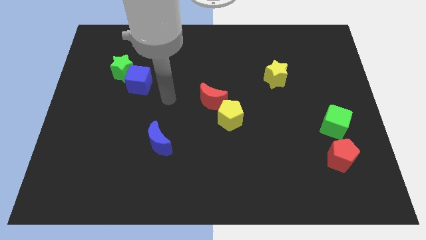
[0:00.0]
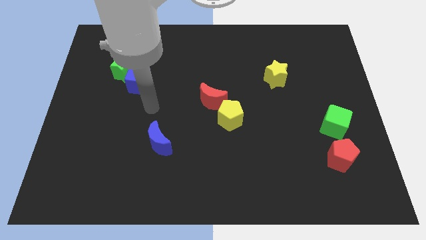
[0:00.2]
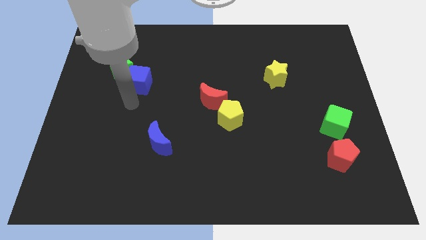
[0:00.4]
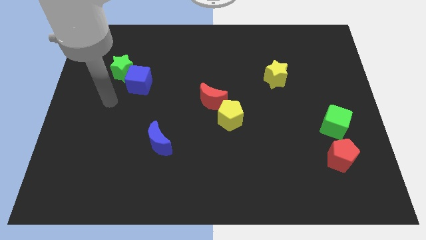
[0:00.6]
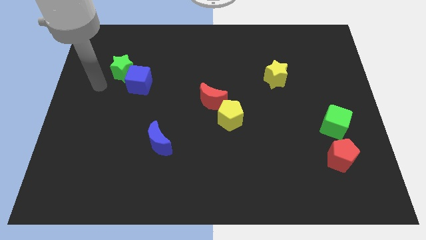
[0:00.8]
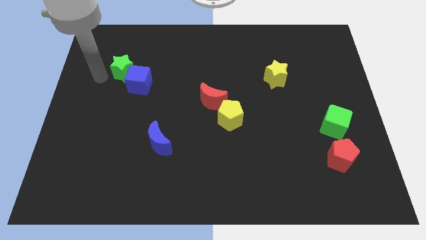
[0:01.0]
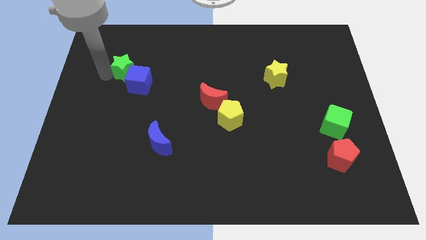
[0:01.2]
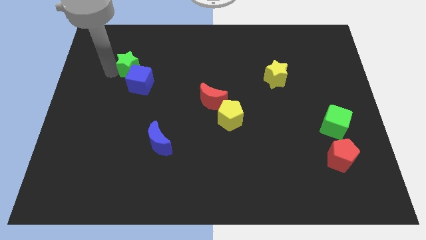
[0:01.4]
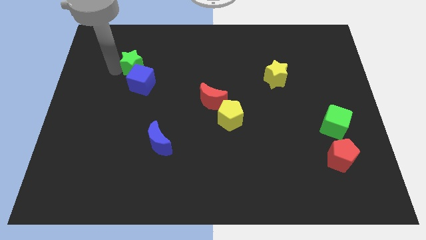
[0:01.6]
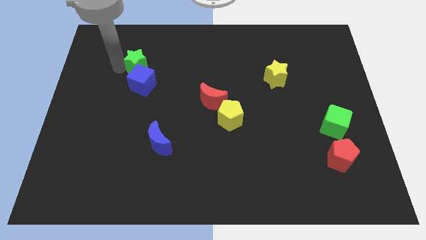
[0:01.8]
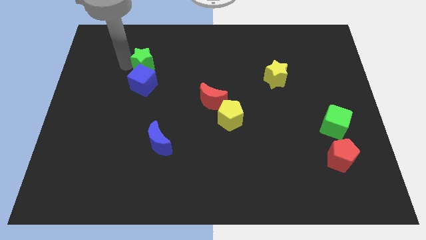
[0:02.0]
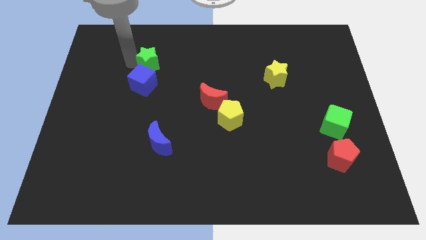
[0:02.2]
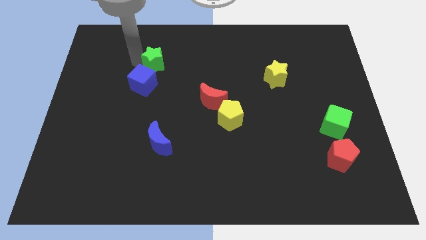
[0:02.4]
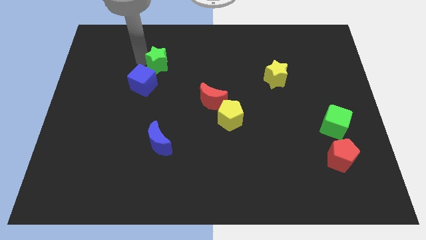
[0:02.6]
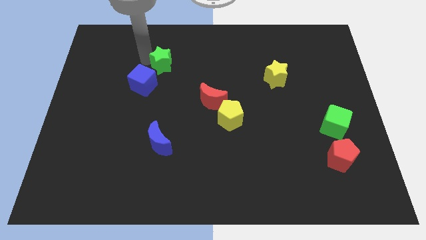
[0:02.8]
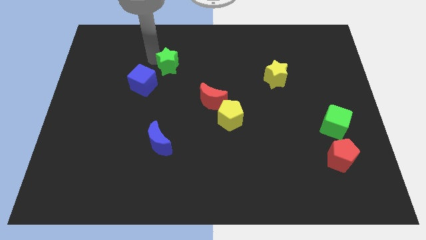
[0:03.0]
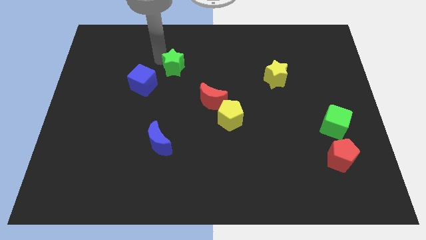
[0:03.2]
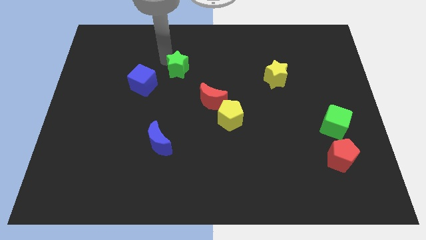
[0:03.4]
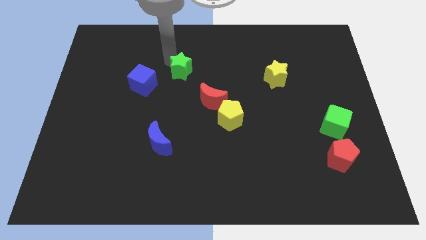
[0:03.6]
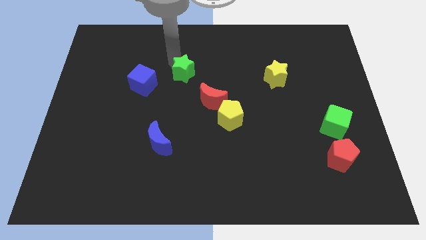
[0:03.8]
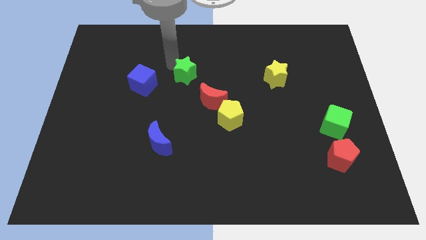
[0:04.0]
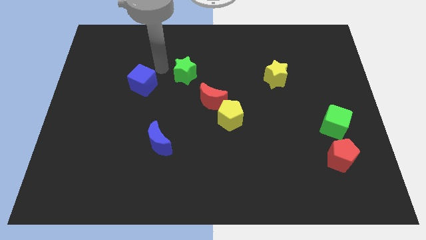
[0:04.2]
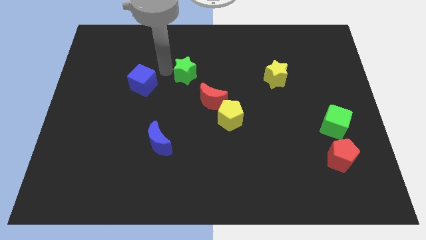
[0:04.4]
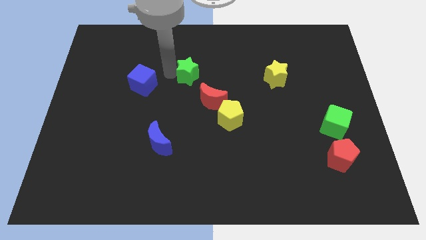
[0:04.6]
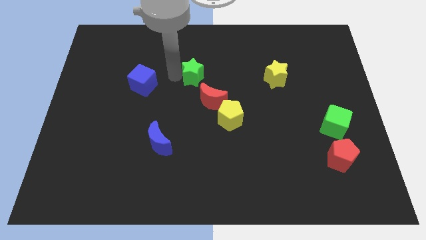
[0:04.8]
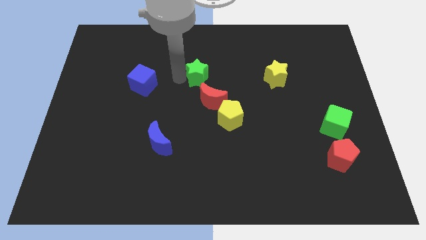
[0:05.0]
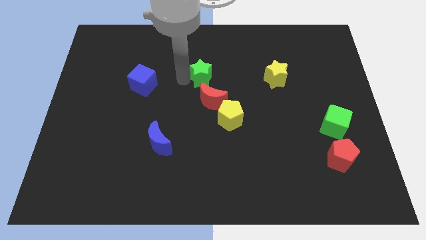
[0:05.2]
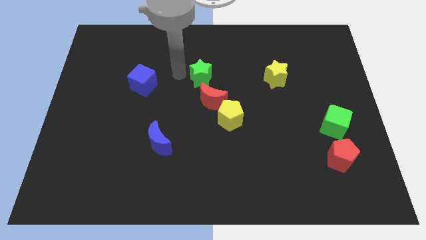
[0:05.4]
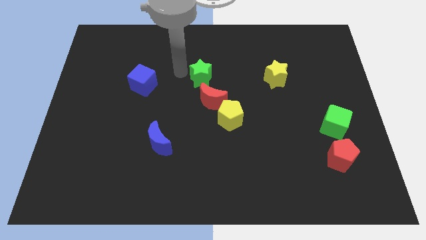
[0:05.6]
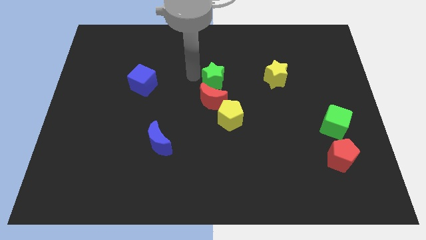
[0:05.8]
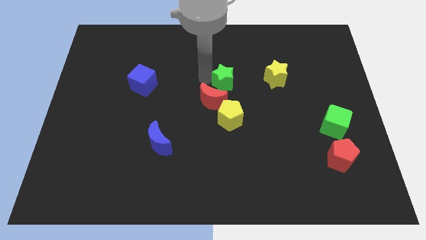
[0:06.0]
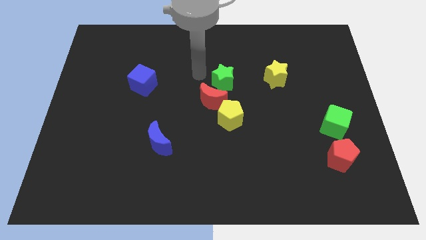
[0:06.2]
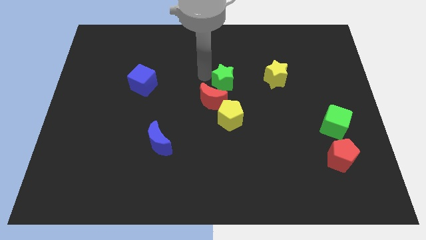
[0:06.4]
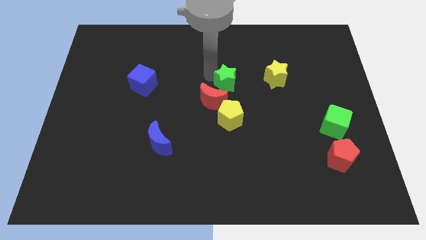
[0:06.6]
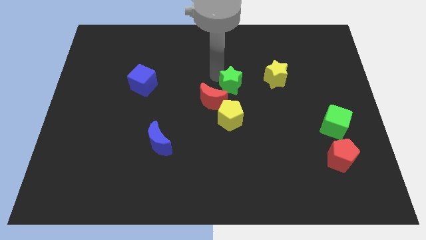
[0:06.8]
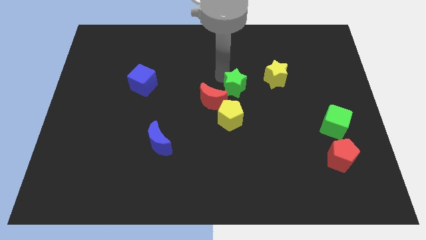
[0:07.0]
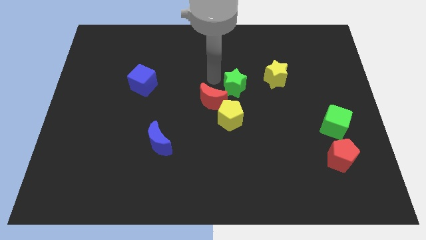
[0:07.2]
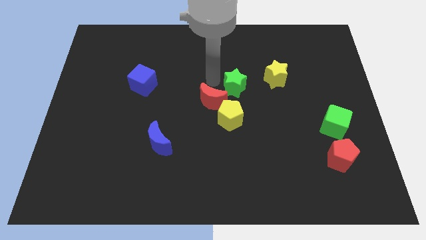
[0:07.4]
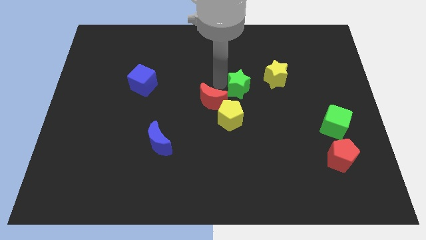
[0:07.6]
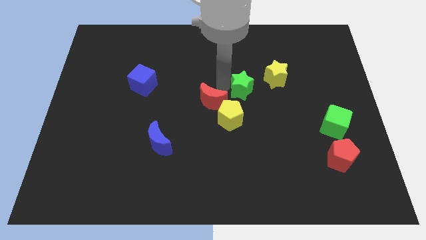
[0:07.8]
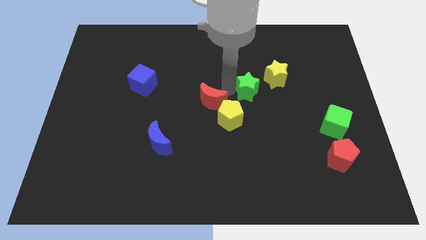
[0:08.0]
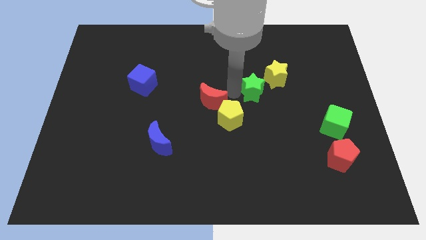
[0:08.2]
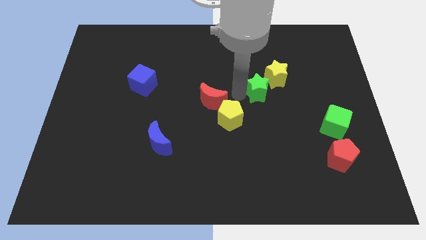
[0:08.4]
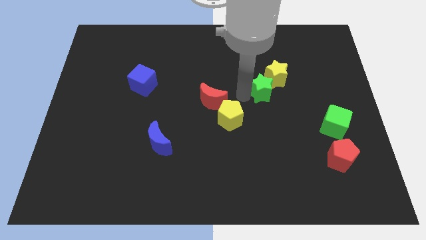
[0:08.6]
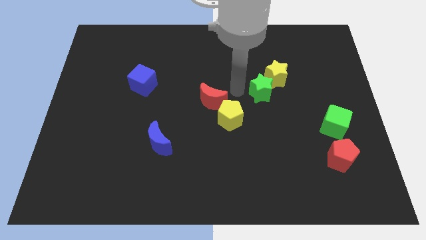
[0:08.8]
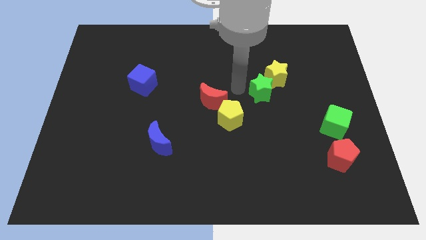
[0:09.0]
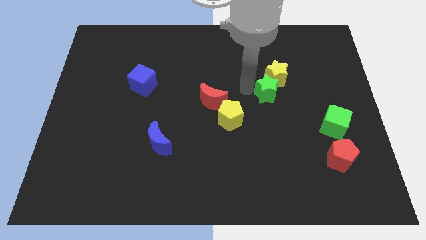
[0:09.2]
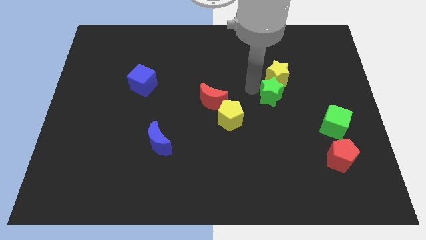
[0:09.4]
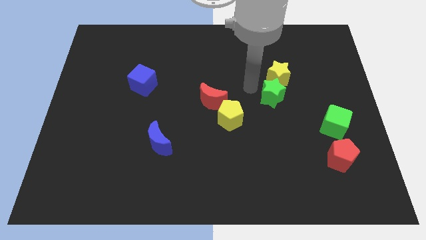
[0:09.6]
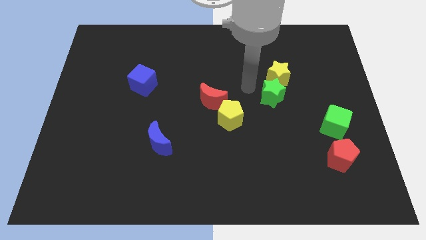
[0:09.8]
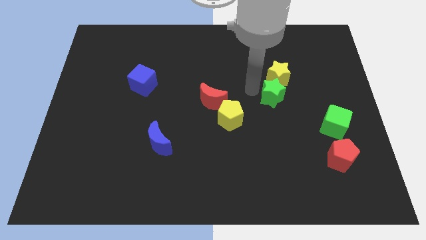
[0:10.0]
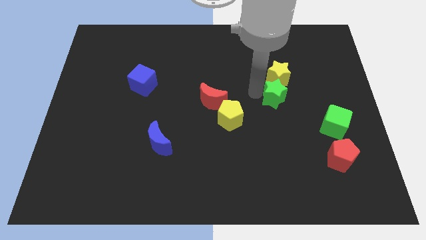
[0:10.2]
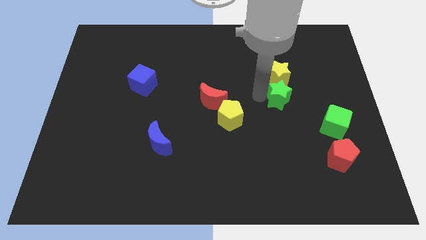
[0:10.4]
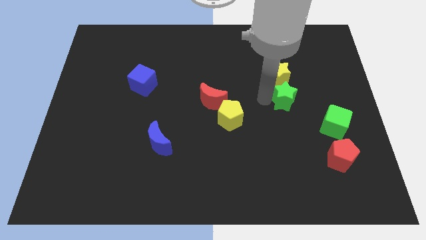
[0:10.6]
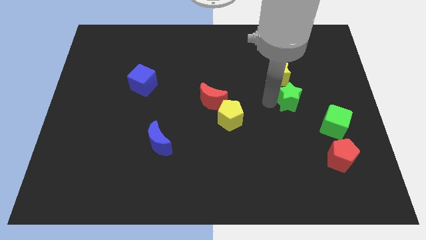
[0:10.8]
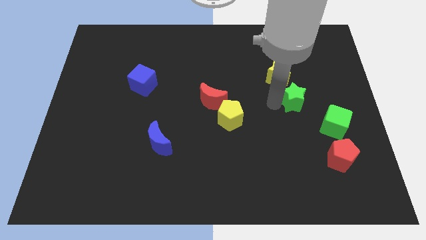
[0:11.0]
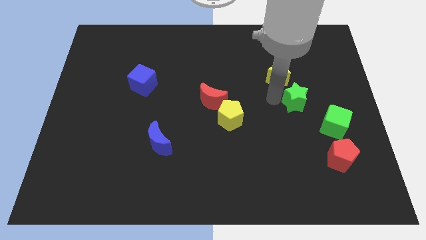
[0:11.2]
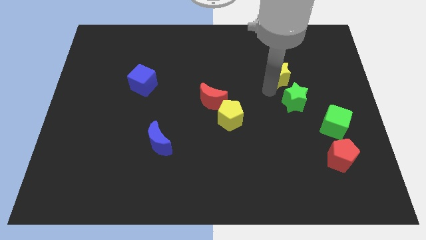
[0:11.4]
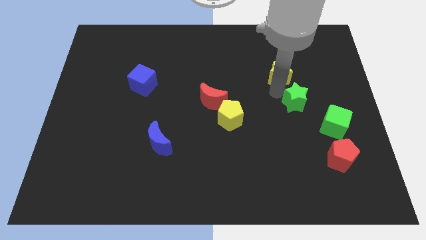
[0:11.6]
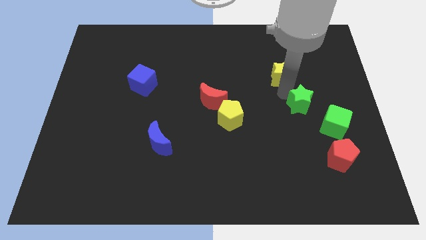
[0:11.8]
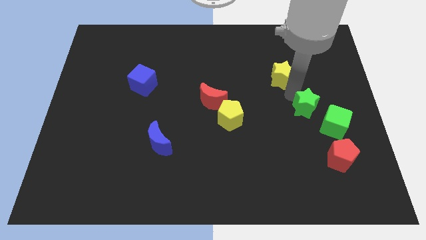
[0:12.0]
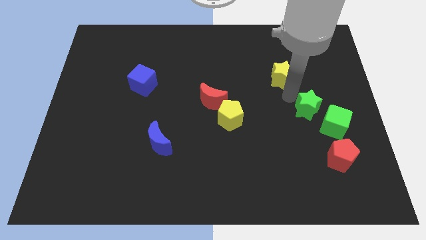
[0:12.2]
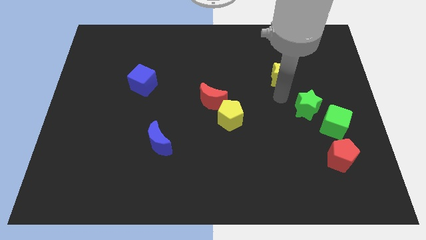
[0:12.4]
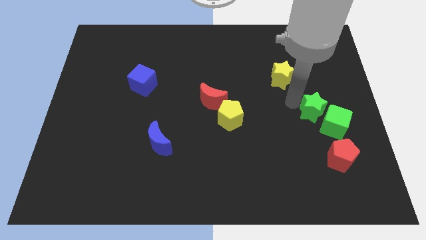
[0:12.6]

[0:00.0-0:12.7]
put the green star above the red pentagon
